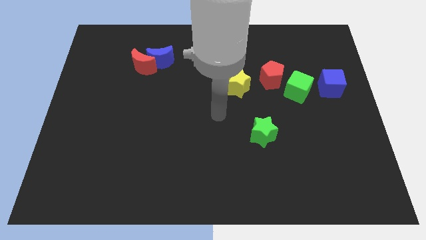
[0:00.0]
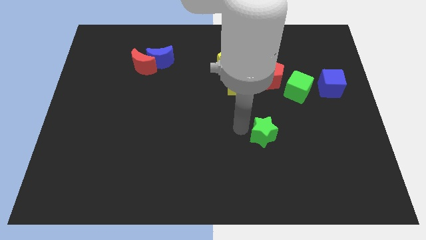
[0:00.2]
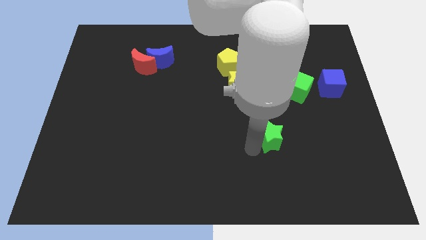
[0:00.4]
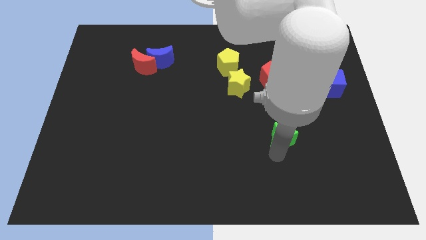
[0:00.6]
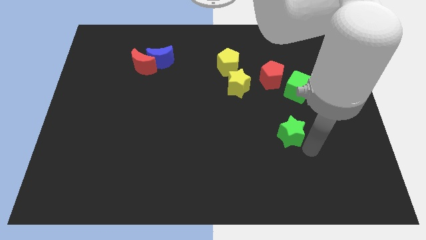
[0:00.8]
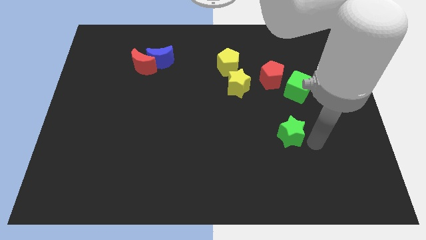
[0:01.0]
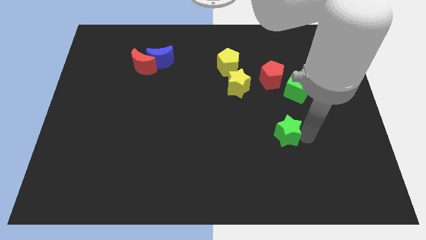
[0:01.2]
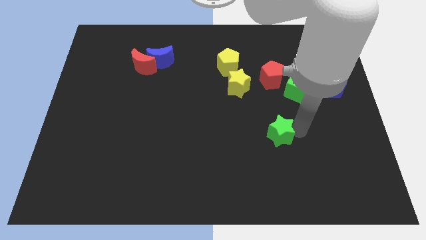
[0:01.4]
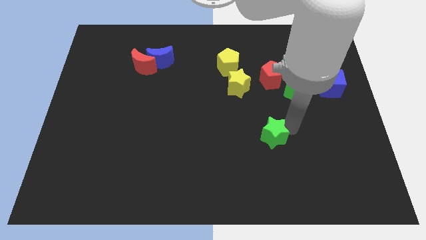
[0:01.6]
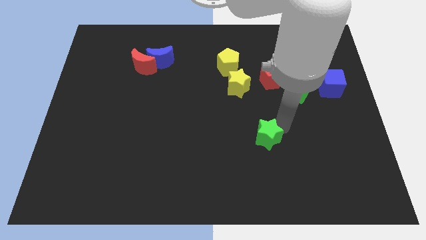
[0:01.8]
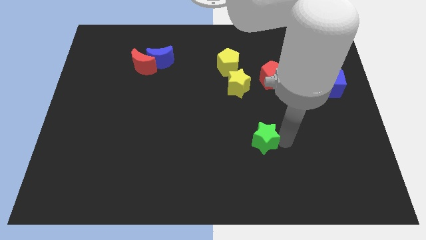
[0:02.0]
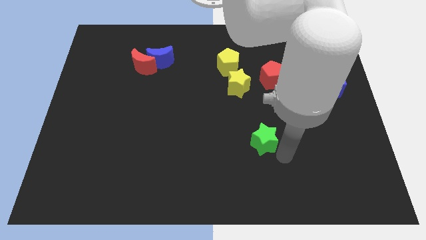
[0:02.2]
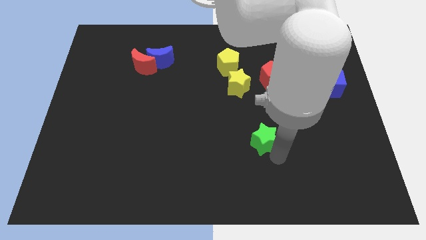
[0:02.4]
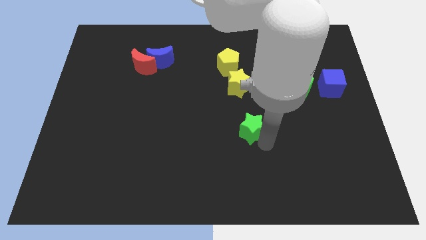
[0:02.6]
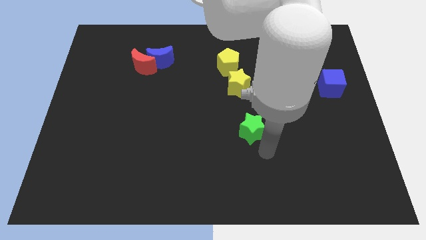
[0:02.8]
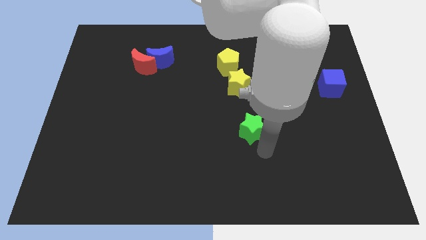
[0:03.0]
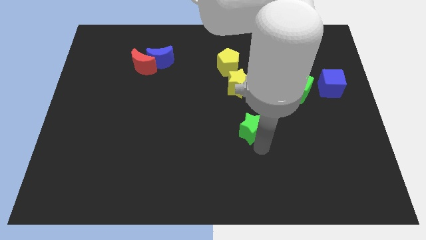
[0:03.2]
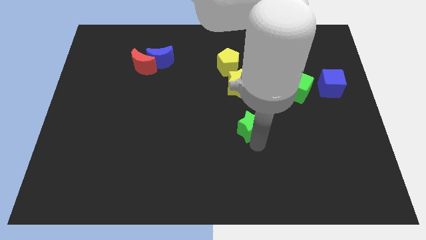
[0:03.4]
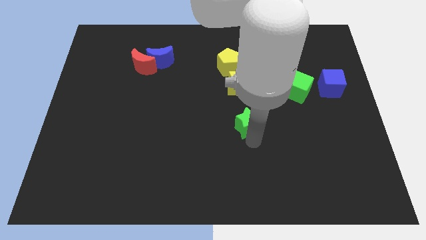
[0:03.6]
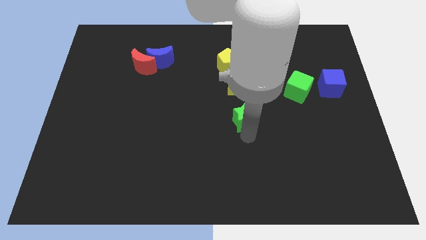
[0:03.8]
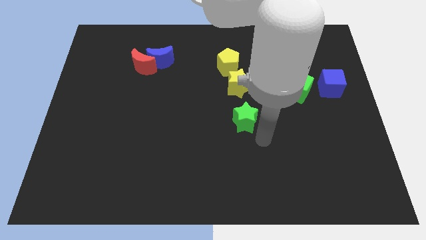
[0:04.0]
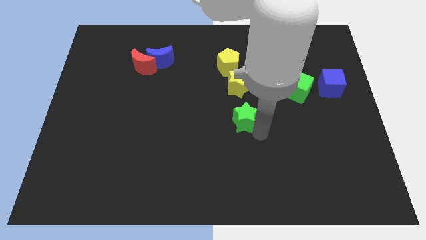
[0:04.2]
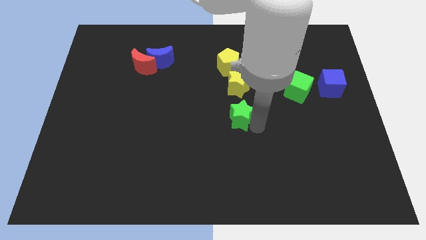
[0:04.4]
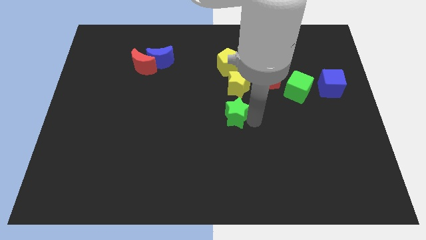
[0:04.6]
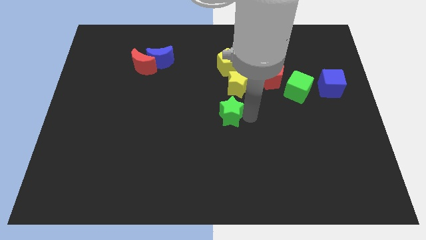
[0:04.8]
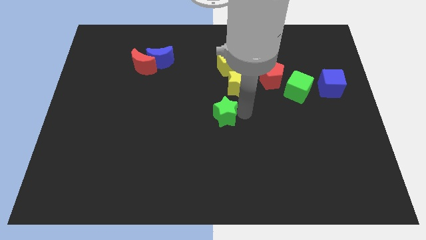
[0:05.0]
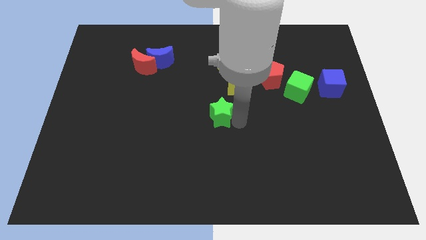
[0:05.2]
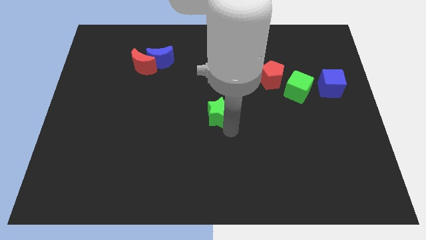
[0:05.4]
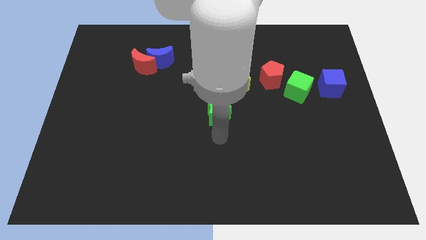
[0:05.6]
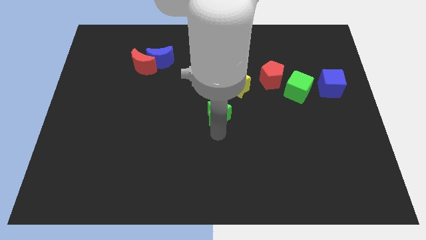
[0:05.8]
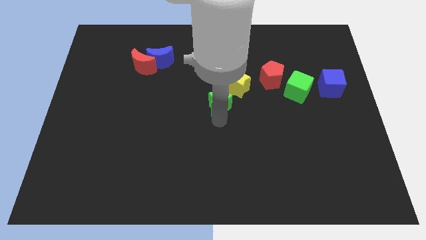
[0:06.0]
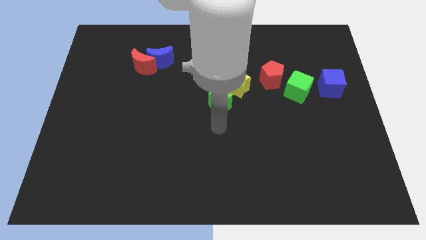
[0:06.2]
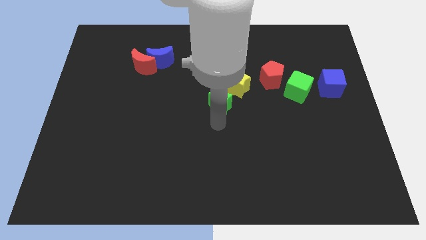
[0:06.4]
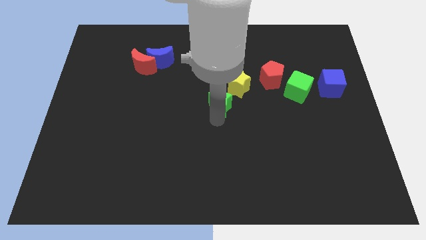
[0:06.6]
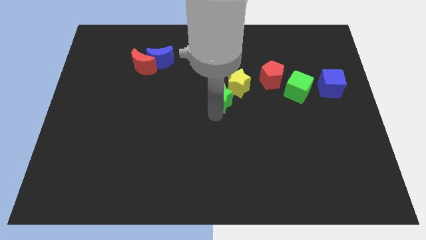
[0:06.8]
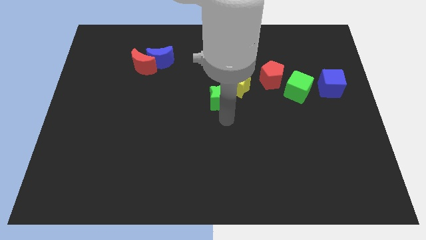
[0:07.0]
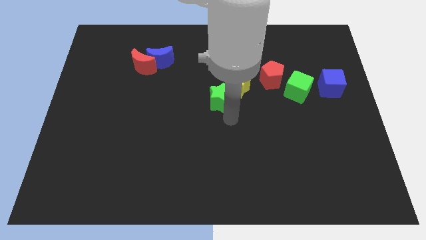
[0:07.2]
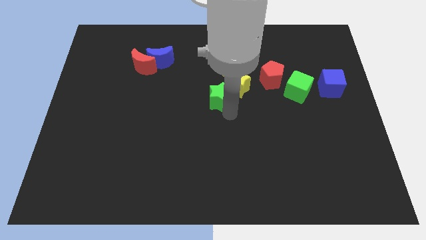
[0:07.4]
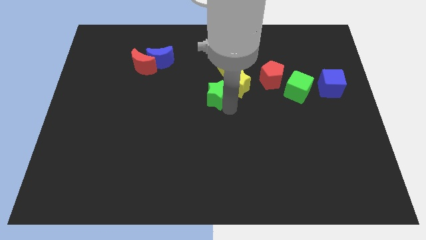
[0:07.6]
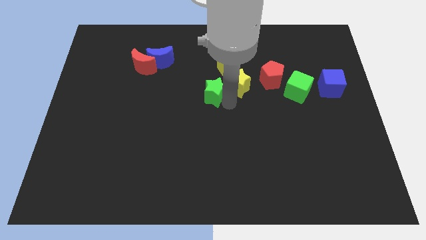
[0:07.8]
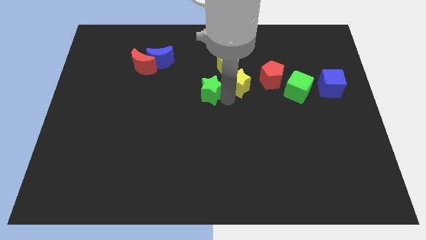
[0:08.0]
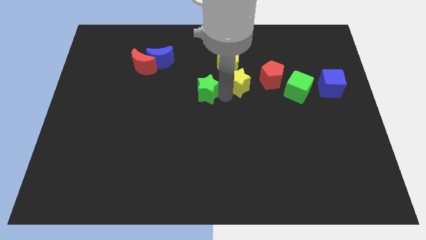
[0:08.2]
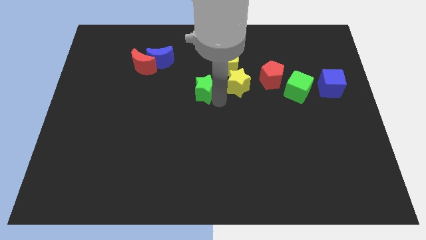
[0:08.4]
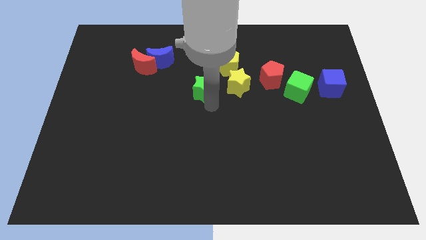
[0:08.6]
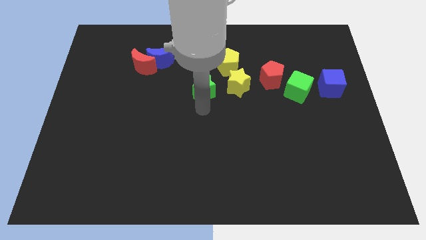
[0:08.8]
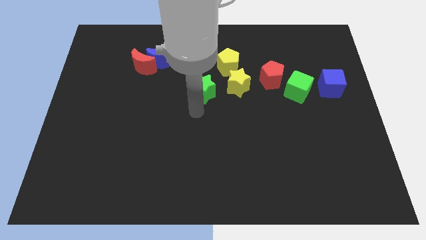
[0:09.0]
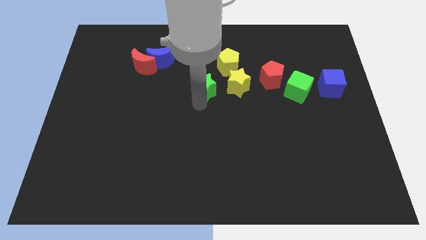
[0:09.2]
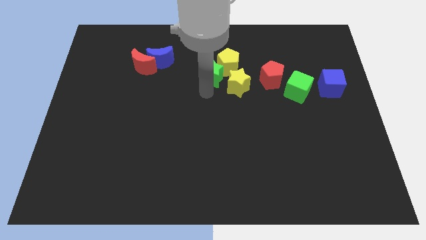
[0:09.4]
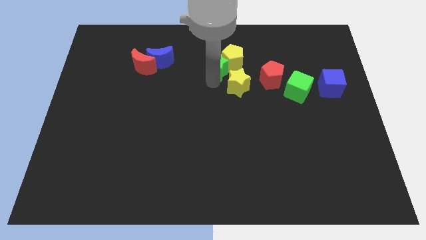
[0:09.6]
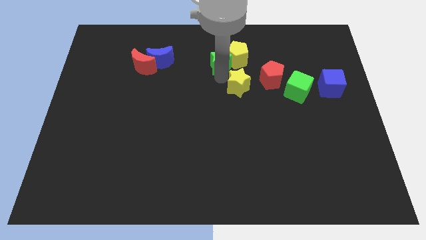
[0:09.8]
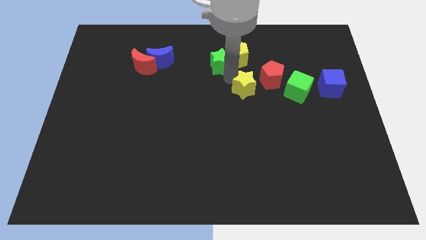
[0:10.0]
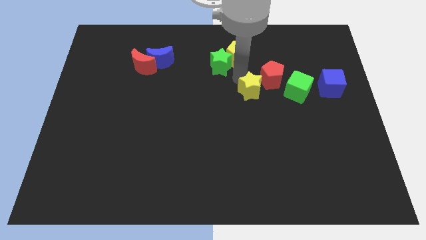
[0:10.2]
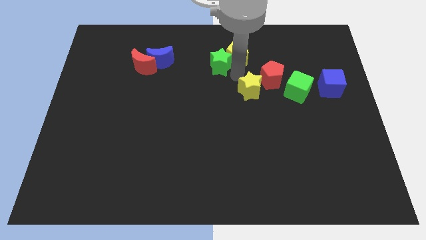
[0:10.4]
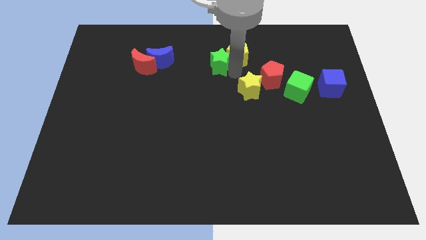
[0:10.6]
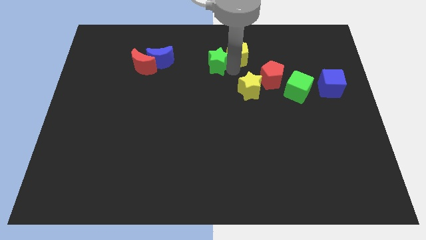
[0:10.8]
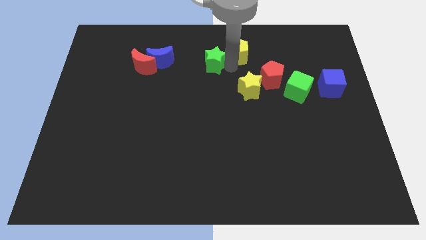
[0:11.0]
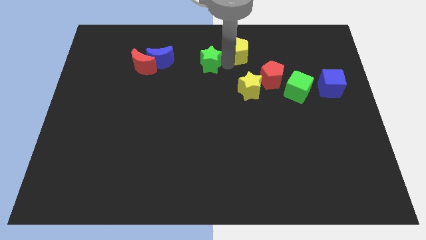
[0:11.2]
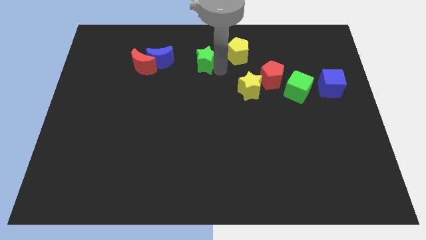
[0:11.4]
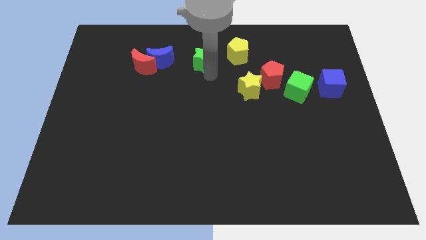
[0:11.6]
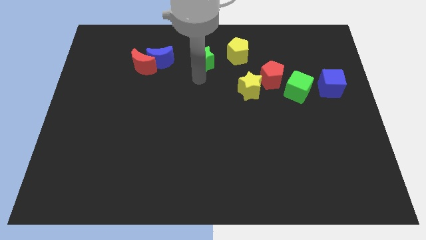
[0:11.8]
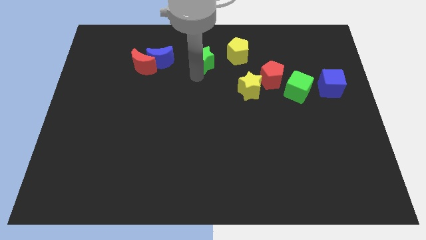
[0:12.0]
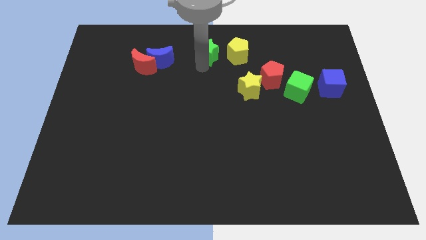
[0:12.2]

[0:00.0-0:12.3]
push the green star to the top

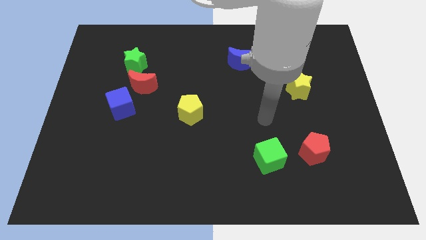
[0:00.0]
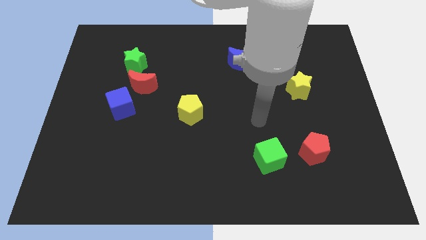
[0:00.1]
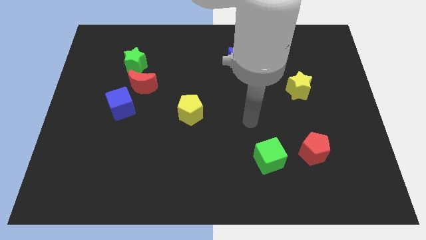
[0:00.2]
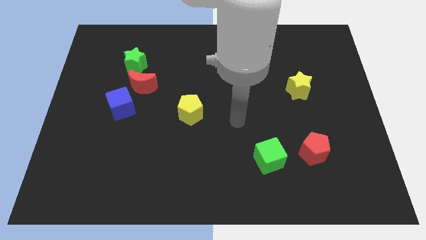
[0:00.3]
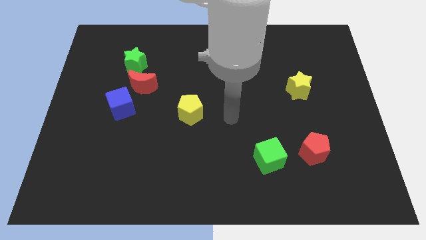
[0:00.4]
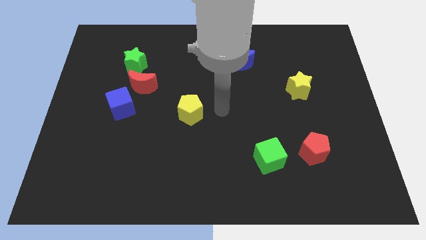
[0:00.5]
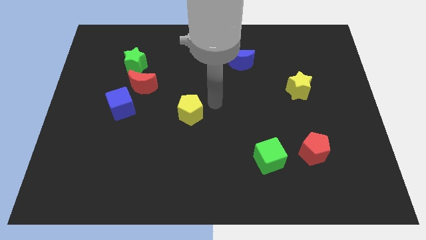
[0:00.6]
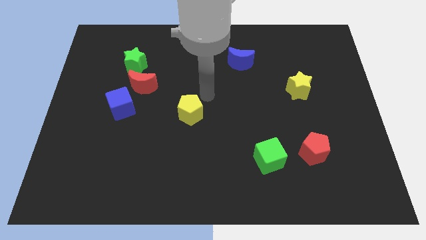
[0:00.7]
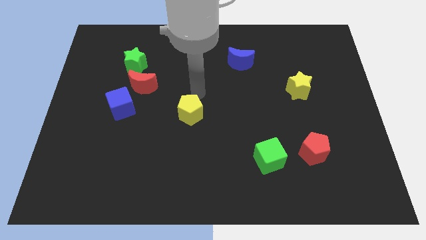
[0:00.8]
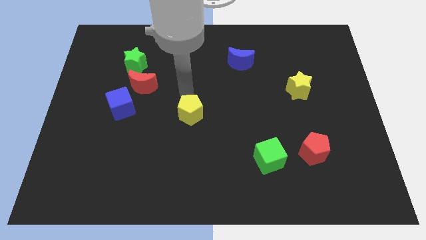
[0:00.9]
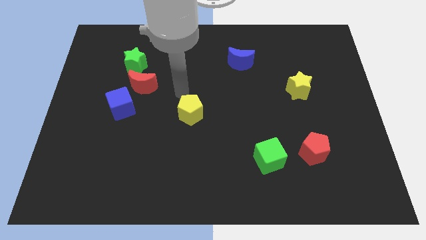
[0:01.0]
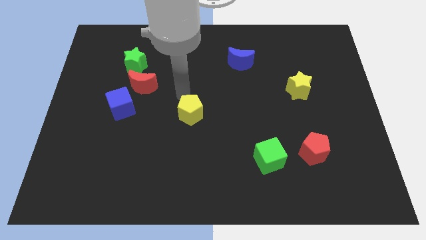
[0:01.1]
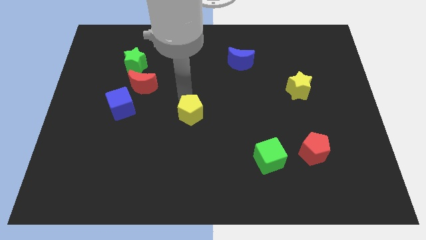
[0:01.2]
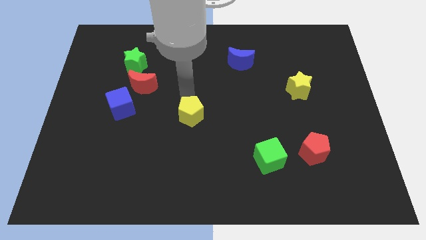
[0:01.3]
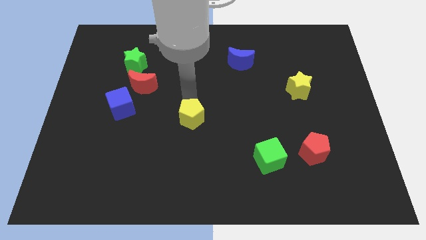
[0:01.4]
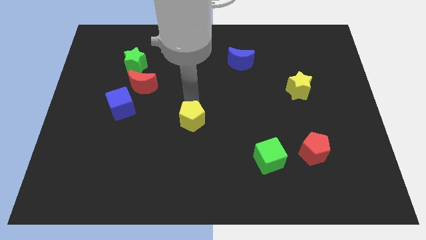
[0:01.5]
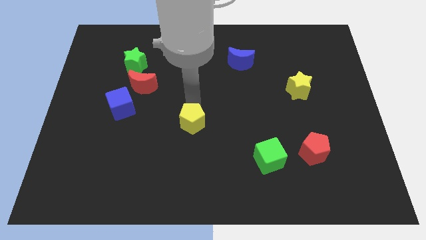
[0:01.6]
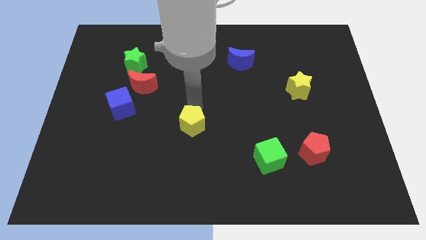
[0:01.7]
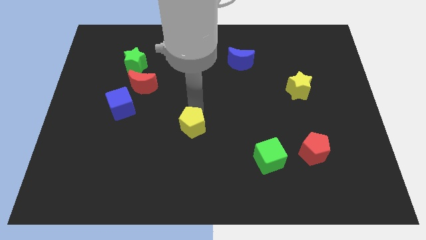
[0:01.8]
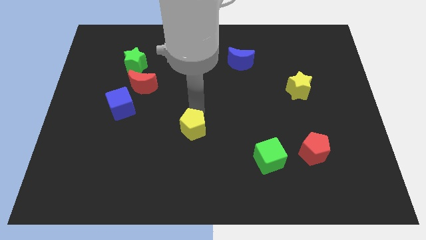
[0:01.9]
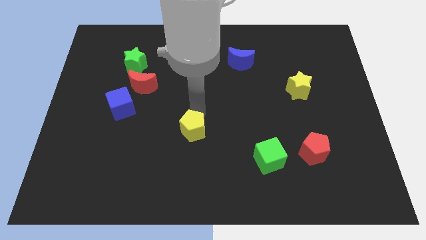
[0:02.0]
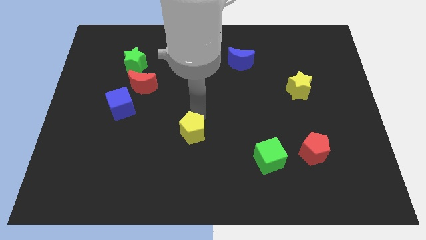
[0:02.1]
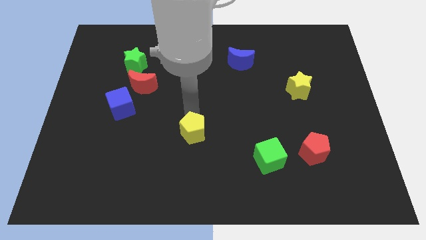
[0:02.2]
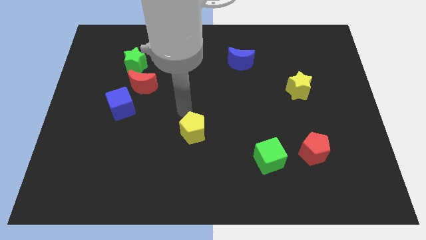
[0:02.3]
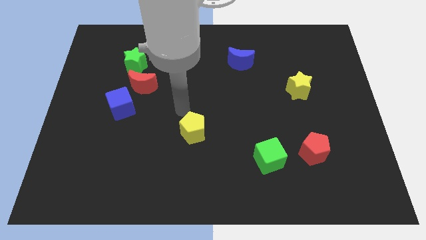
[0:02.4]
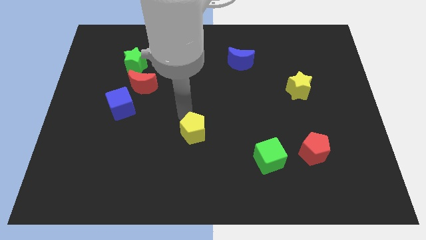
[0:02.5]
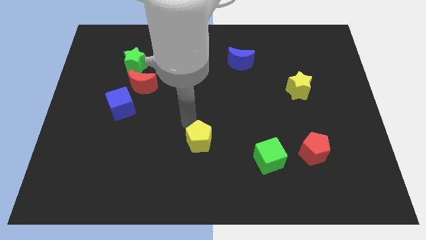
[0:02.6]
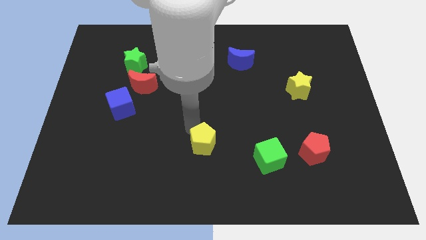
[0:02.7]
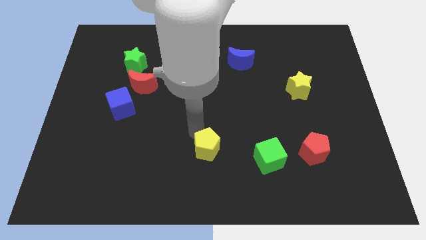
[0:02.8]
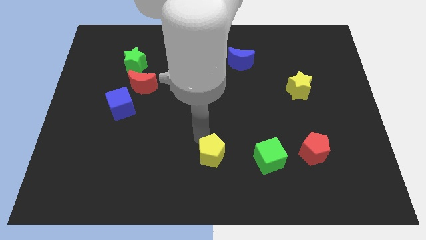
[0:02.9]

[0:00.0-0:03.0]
push the yellow pentagon to the bottom side
